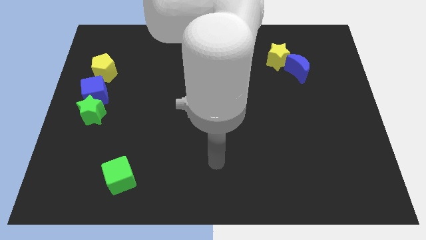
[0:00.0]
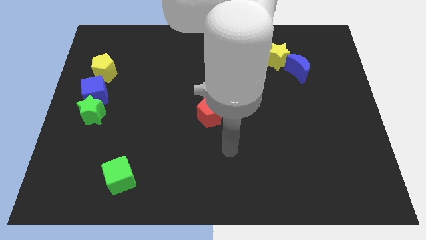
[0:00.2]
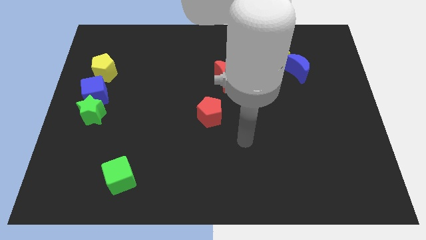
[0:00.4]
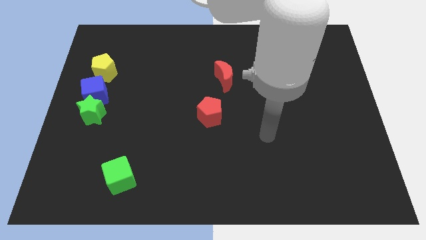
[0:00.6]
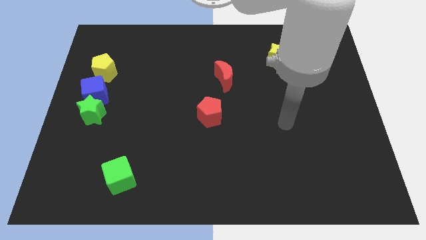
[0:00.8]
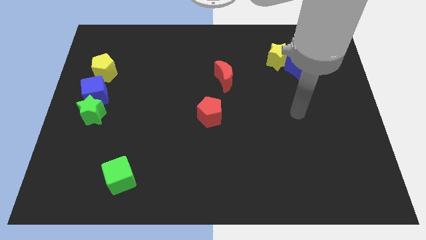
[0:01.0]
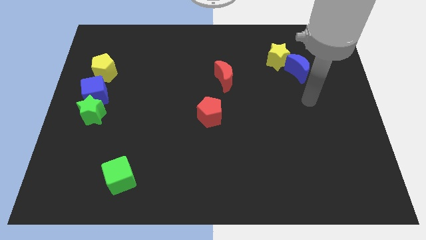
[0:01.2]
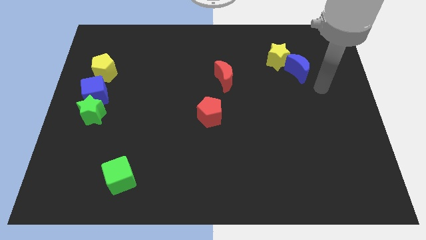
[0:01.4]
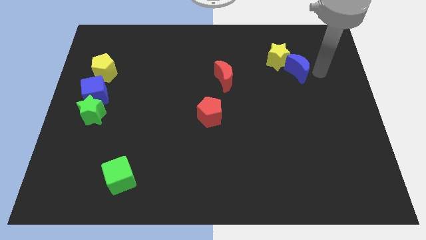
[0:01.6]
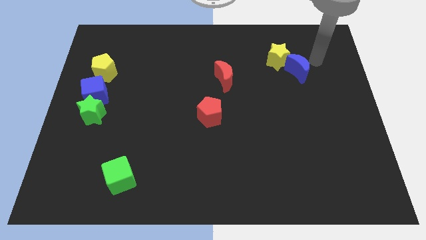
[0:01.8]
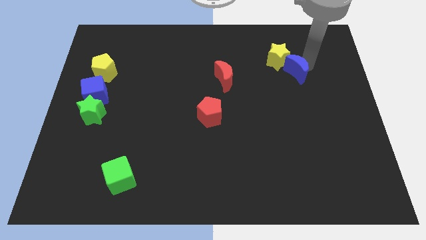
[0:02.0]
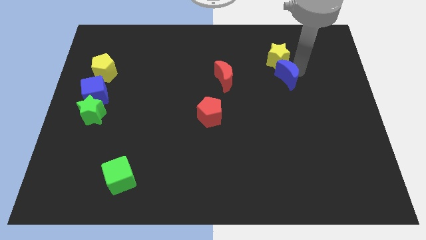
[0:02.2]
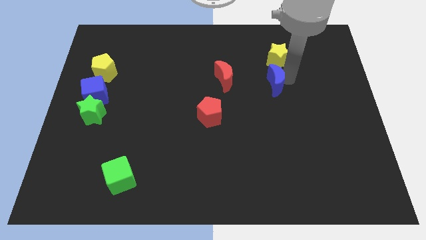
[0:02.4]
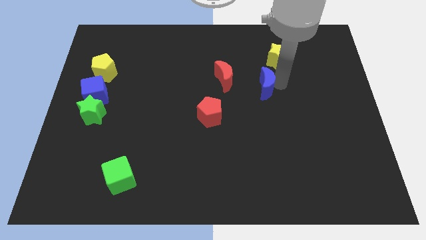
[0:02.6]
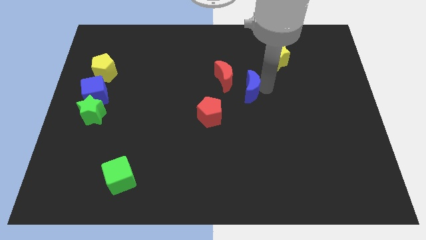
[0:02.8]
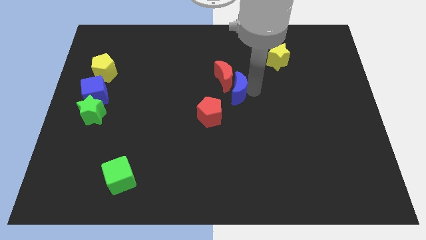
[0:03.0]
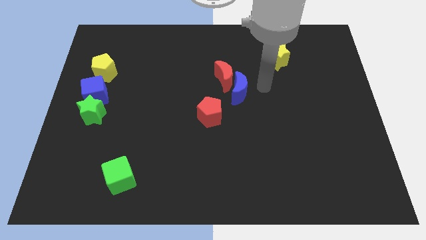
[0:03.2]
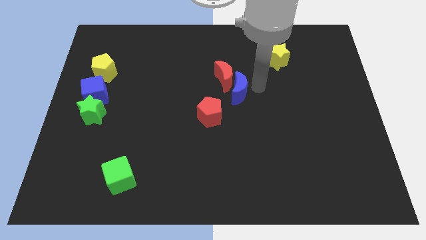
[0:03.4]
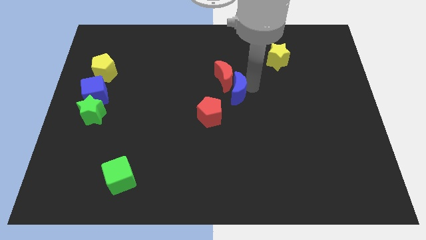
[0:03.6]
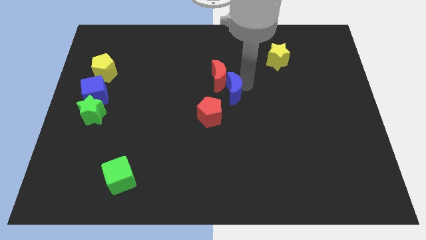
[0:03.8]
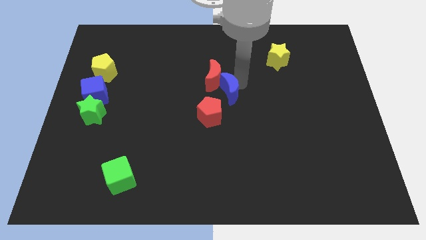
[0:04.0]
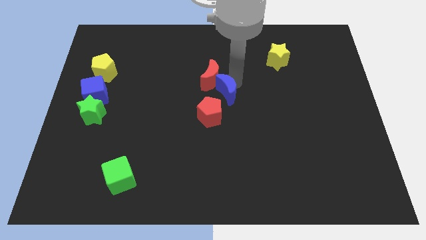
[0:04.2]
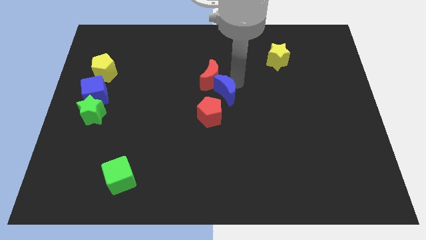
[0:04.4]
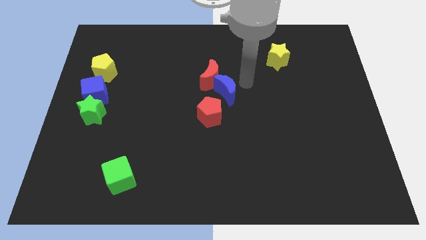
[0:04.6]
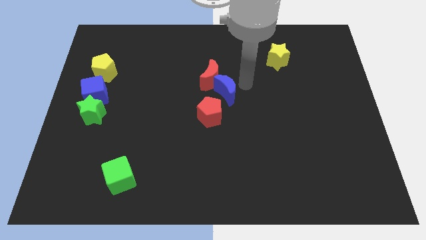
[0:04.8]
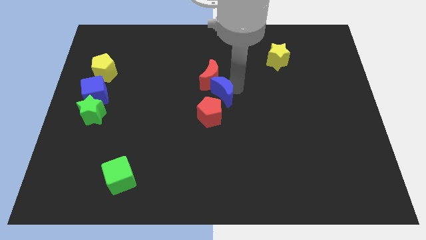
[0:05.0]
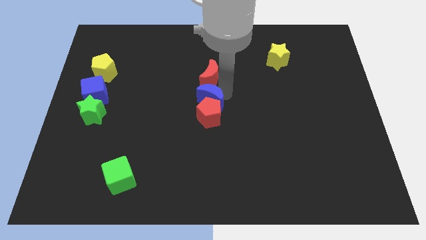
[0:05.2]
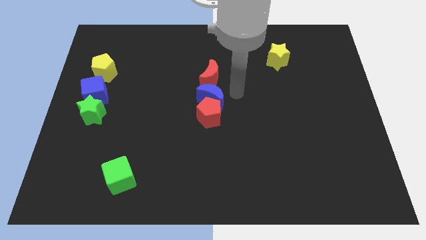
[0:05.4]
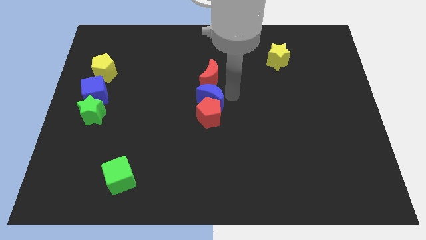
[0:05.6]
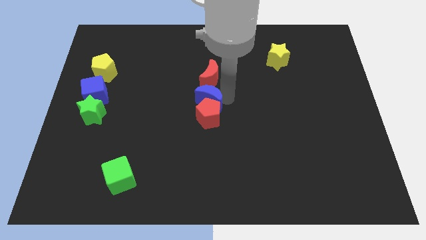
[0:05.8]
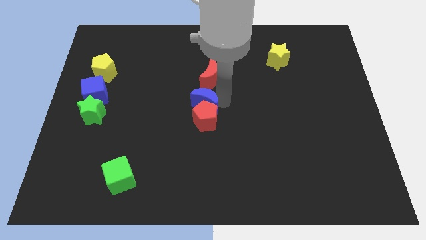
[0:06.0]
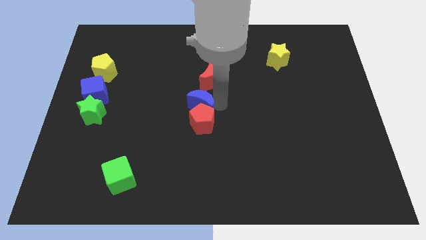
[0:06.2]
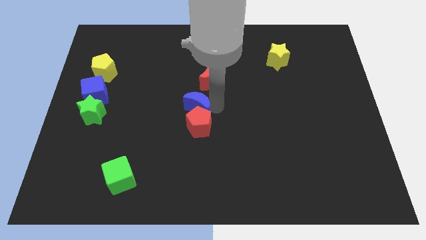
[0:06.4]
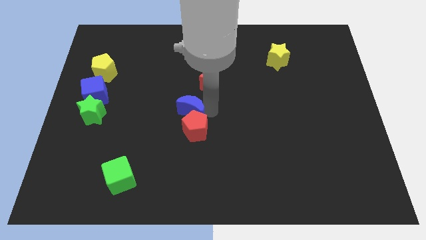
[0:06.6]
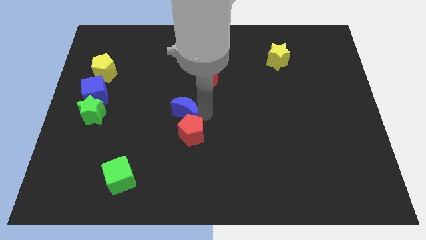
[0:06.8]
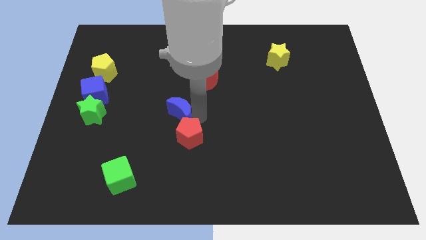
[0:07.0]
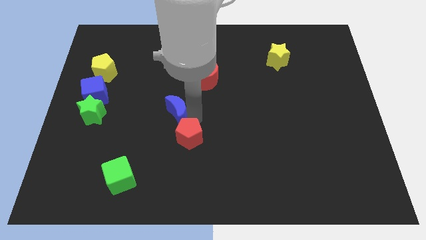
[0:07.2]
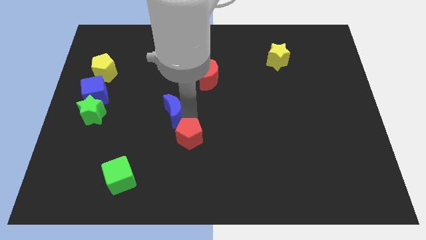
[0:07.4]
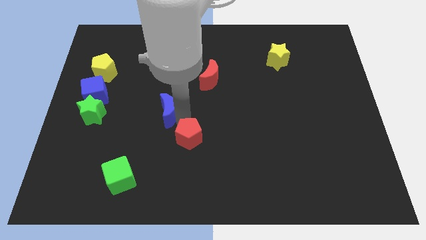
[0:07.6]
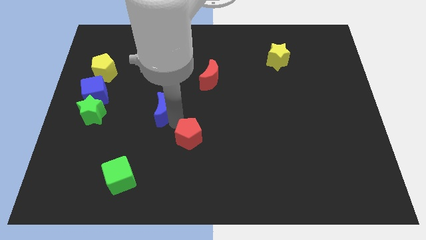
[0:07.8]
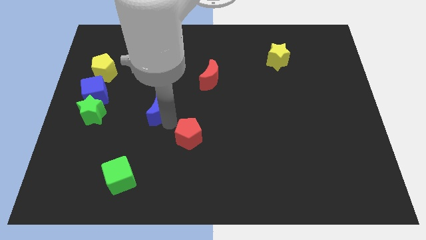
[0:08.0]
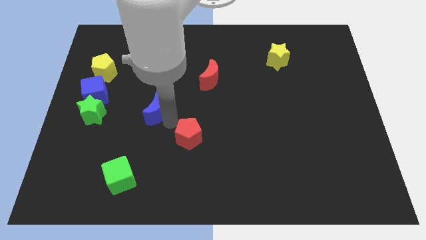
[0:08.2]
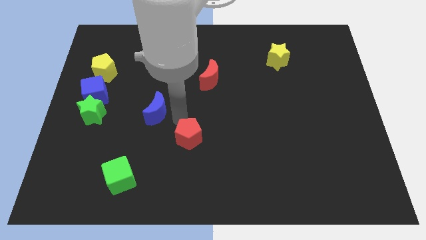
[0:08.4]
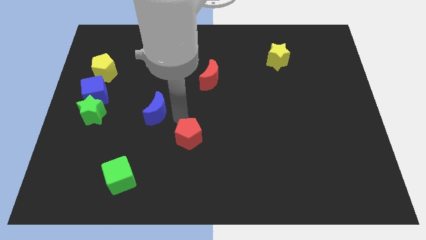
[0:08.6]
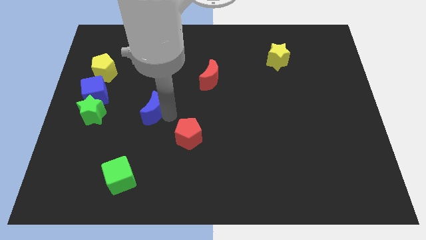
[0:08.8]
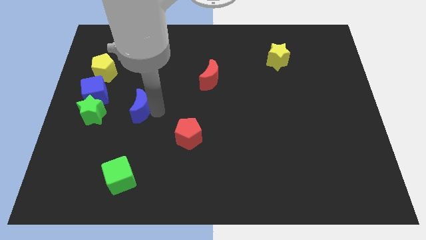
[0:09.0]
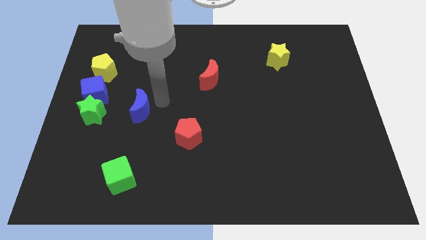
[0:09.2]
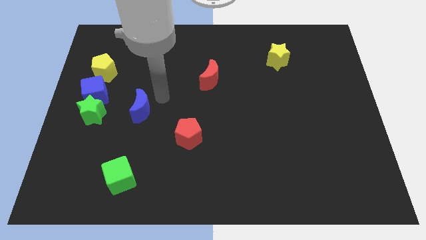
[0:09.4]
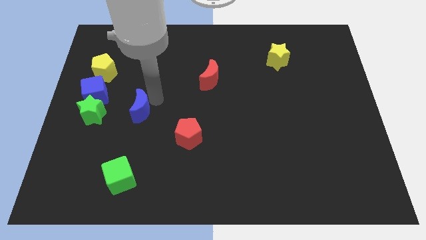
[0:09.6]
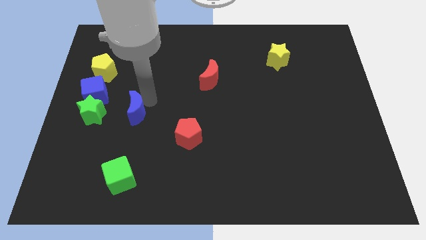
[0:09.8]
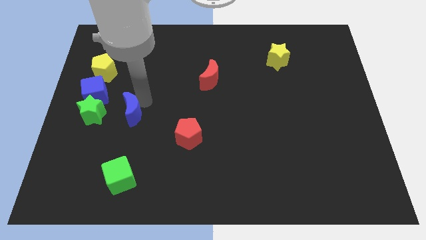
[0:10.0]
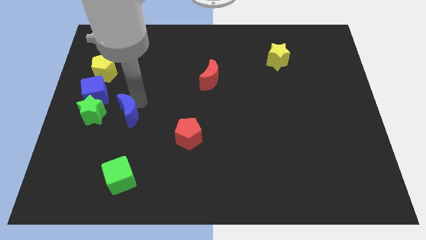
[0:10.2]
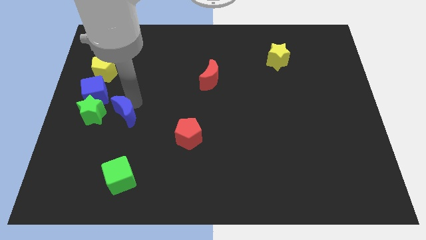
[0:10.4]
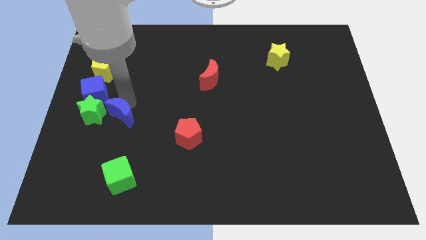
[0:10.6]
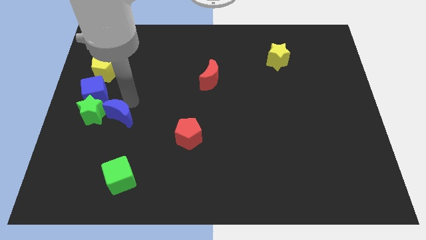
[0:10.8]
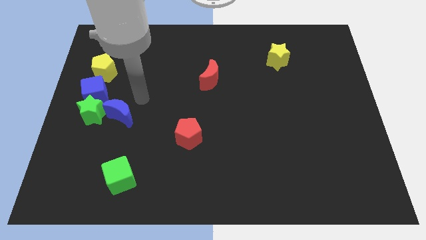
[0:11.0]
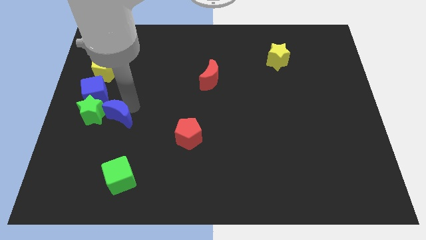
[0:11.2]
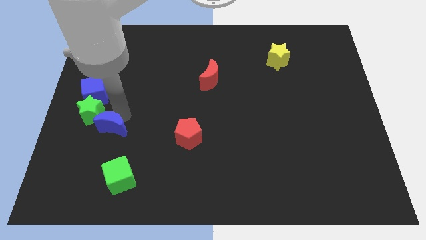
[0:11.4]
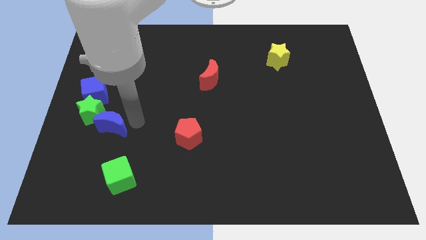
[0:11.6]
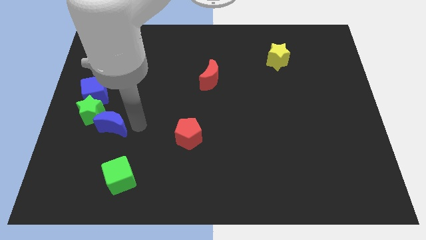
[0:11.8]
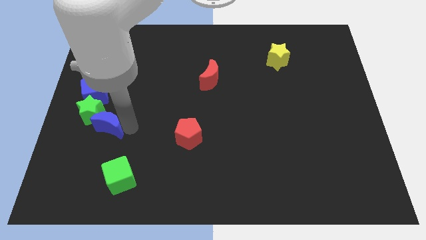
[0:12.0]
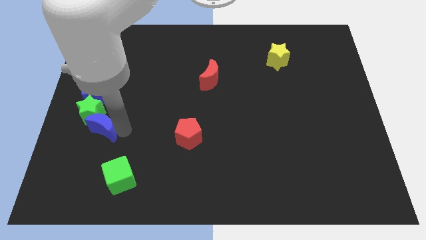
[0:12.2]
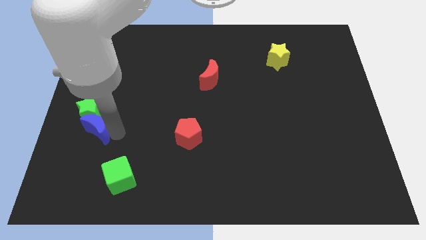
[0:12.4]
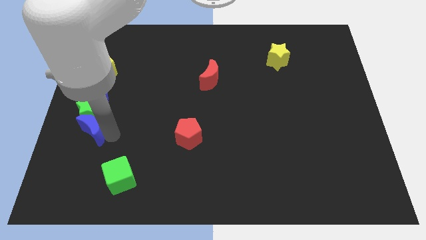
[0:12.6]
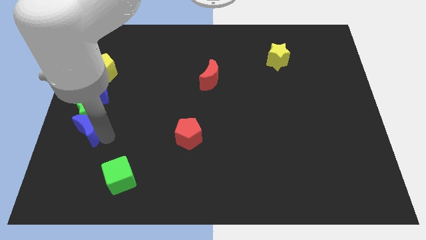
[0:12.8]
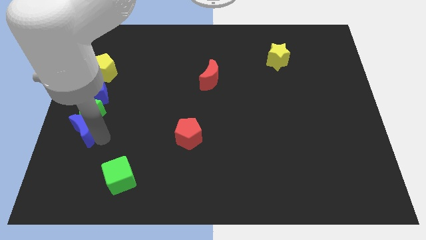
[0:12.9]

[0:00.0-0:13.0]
push the blue moon to the left side of the board
